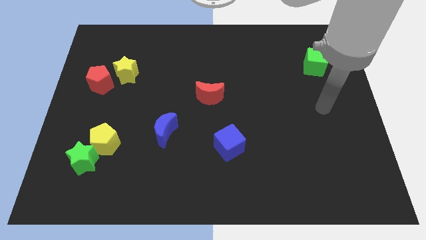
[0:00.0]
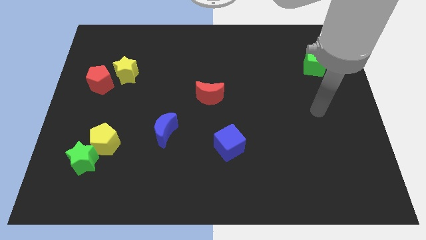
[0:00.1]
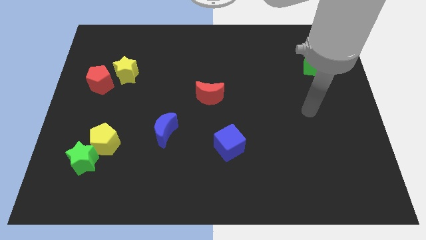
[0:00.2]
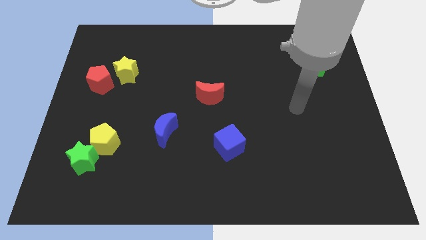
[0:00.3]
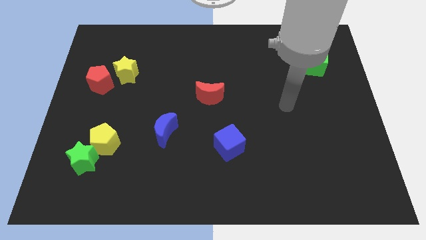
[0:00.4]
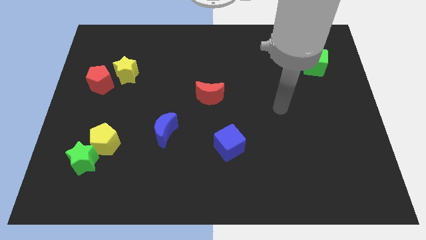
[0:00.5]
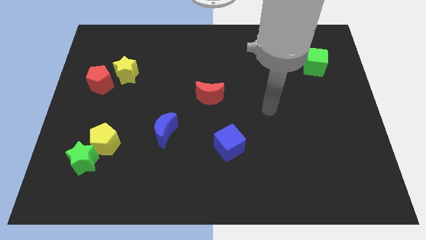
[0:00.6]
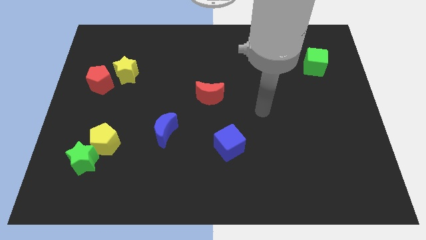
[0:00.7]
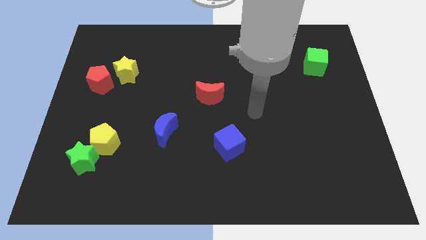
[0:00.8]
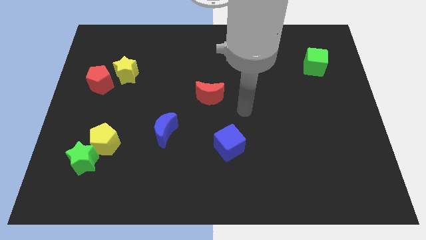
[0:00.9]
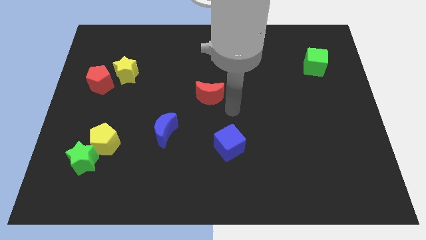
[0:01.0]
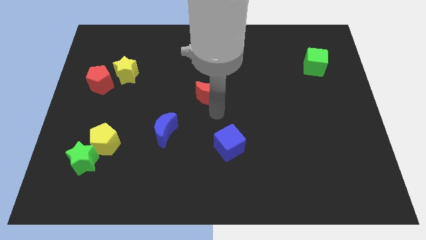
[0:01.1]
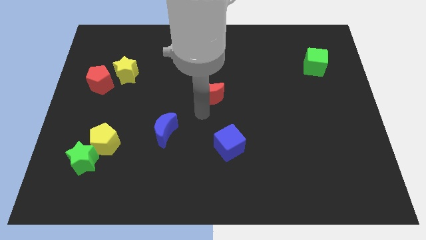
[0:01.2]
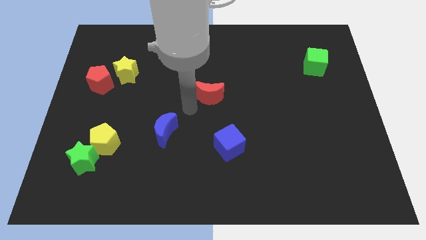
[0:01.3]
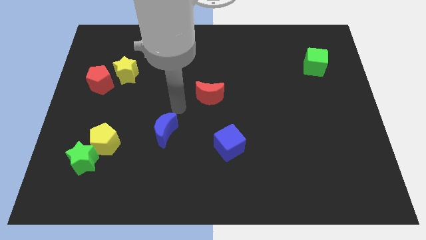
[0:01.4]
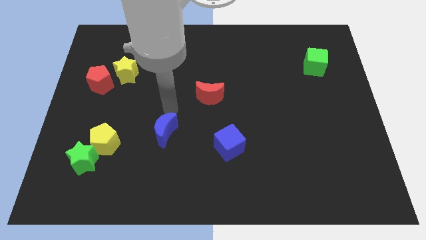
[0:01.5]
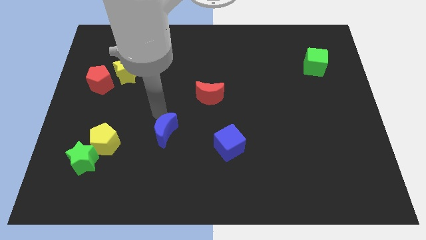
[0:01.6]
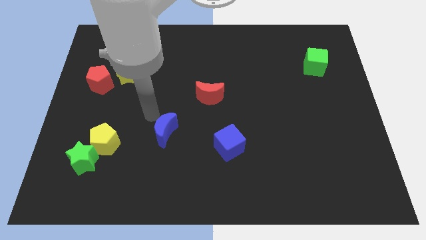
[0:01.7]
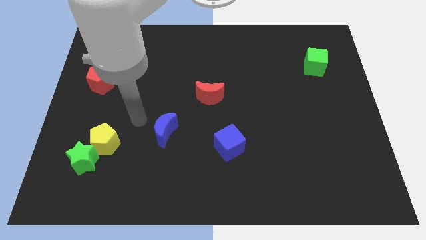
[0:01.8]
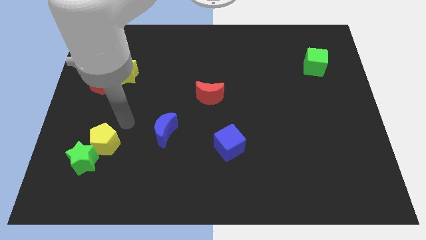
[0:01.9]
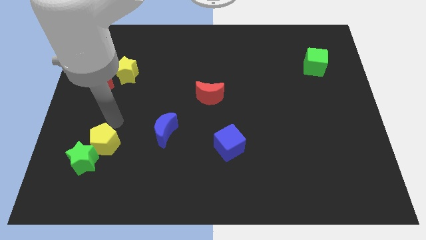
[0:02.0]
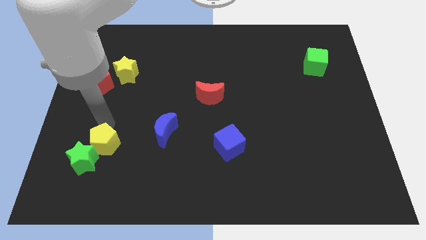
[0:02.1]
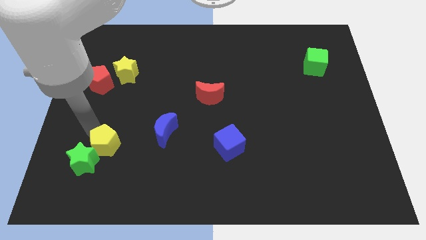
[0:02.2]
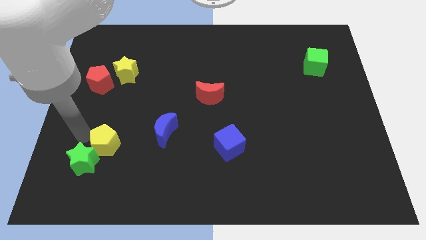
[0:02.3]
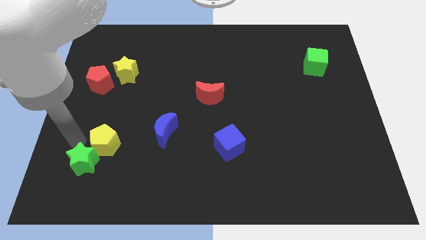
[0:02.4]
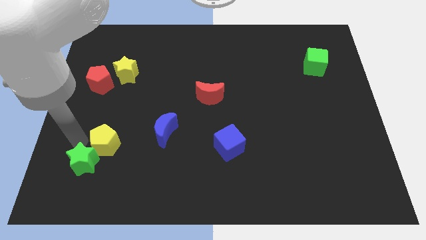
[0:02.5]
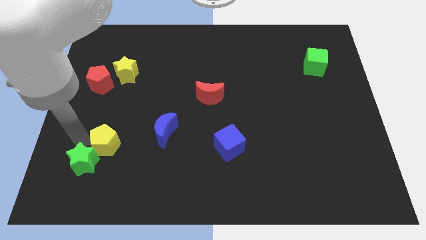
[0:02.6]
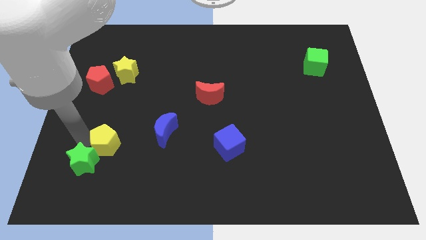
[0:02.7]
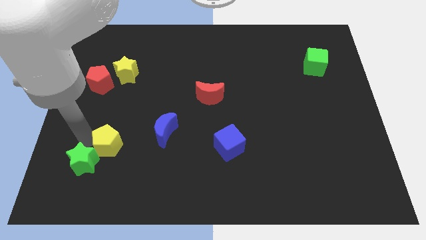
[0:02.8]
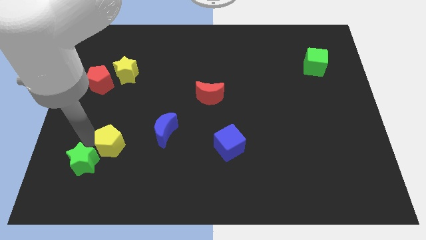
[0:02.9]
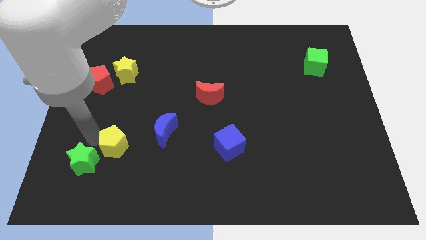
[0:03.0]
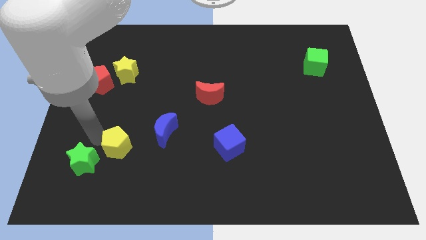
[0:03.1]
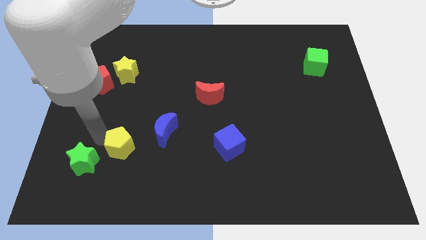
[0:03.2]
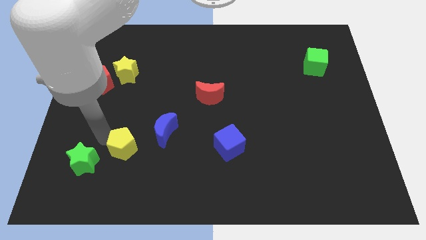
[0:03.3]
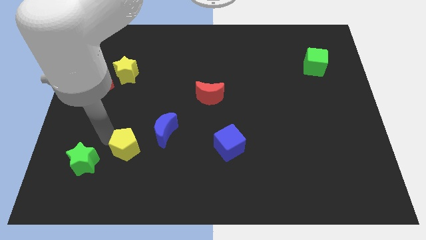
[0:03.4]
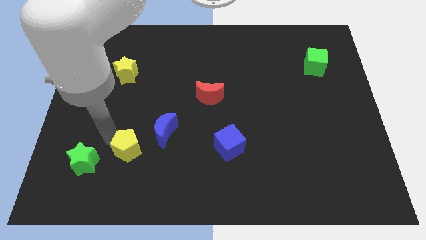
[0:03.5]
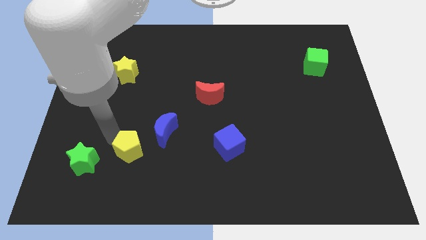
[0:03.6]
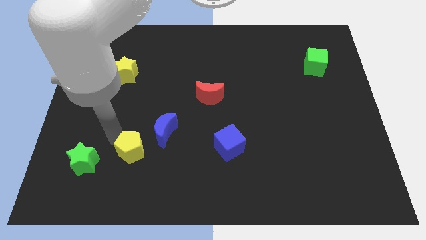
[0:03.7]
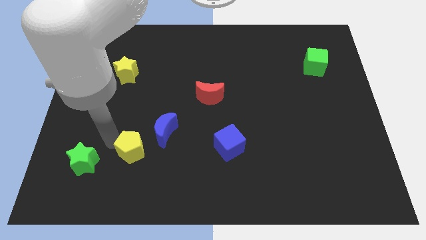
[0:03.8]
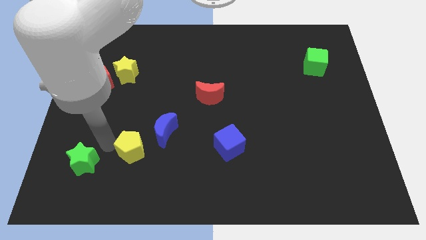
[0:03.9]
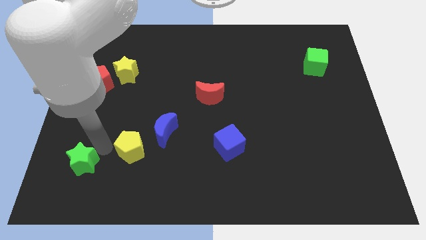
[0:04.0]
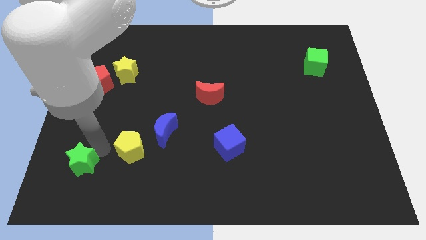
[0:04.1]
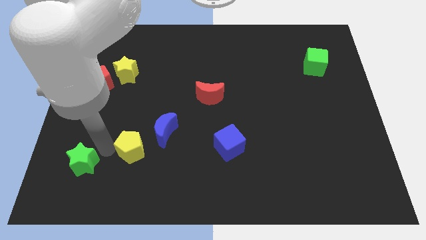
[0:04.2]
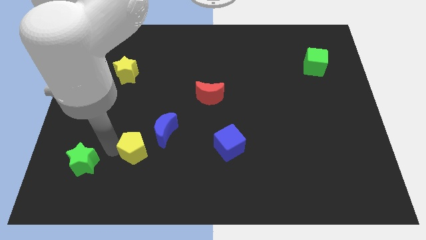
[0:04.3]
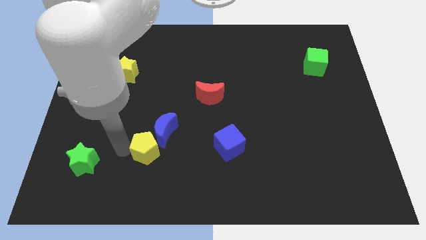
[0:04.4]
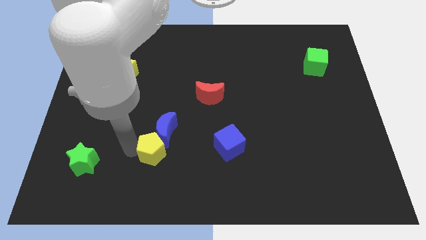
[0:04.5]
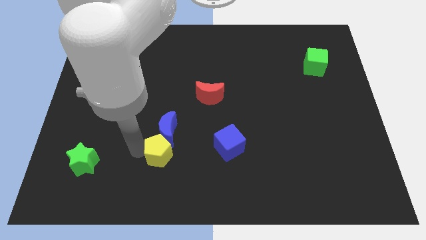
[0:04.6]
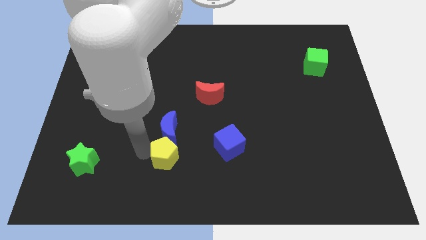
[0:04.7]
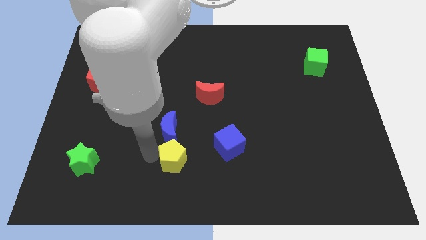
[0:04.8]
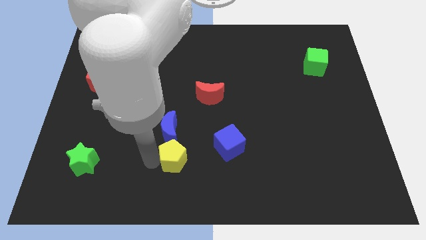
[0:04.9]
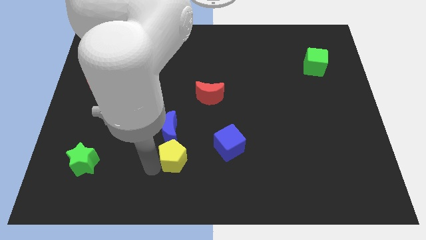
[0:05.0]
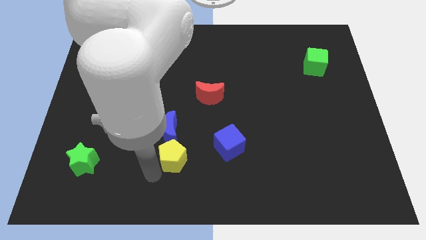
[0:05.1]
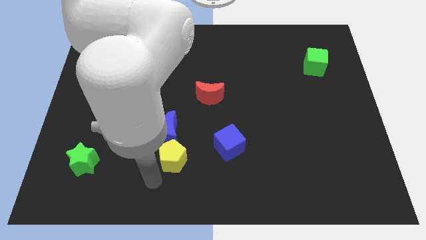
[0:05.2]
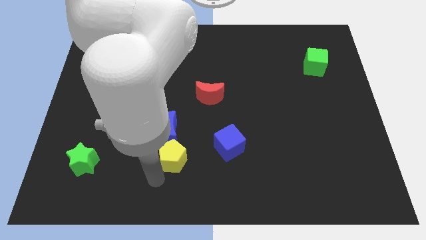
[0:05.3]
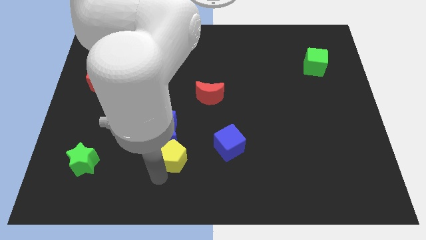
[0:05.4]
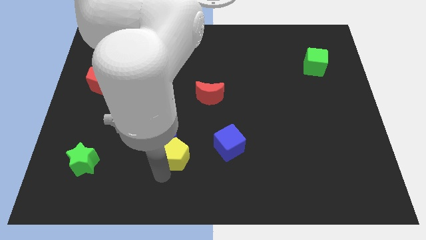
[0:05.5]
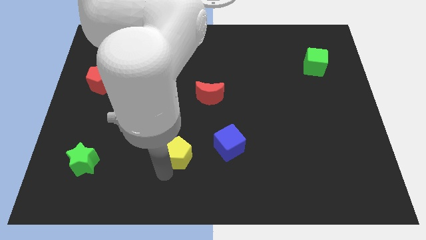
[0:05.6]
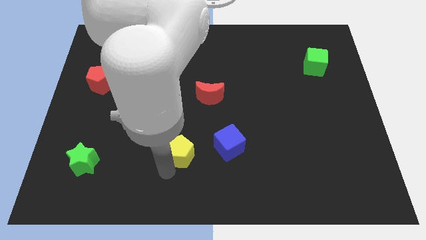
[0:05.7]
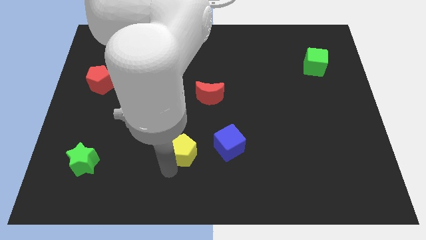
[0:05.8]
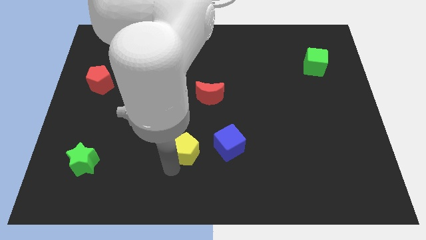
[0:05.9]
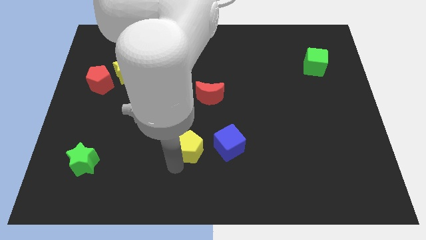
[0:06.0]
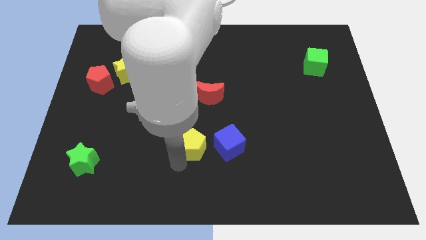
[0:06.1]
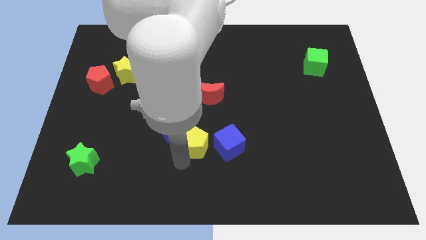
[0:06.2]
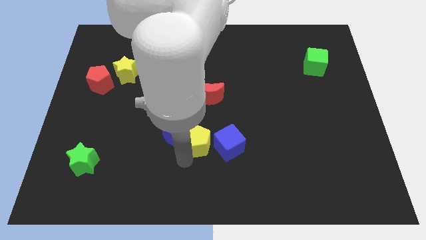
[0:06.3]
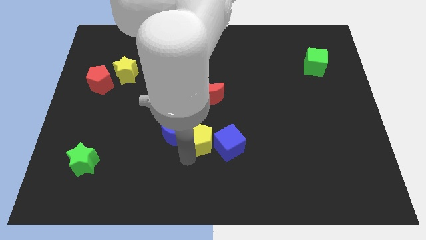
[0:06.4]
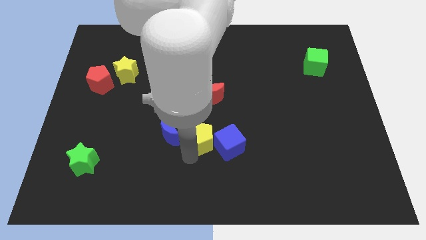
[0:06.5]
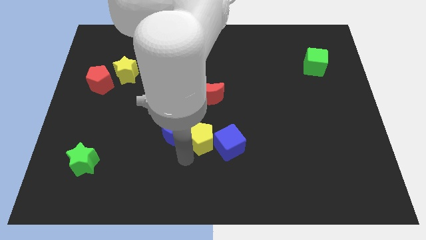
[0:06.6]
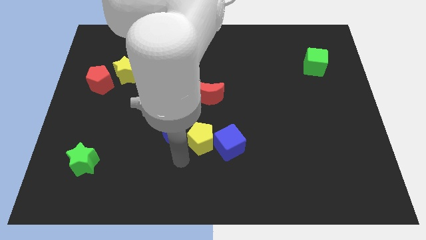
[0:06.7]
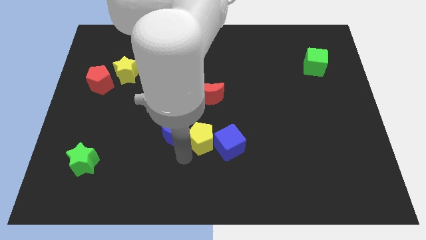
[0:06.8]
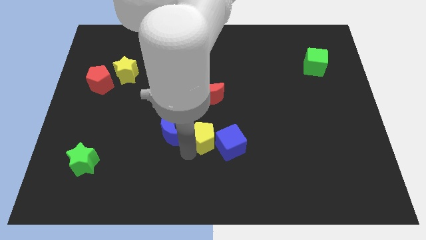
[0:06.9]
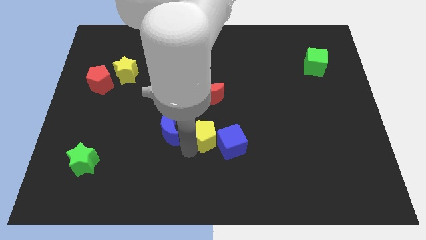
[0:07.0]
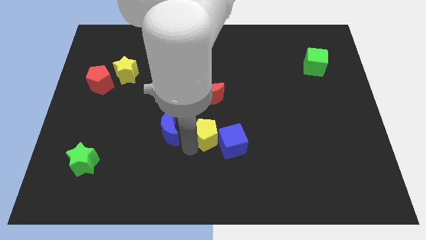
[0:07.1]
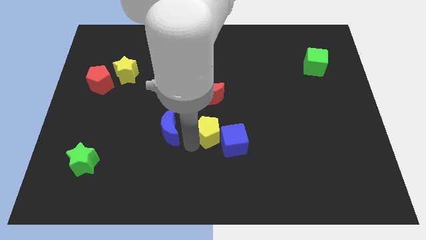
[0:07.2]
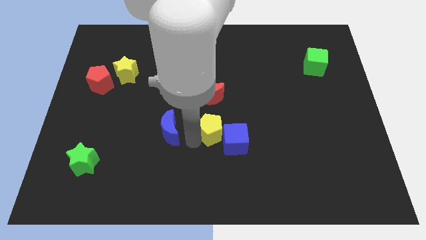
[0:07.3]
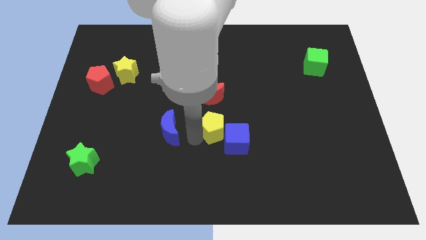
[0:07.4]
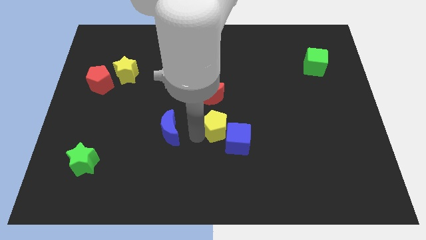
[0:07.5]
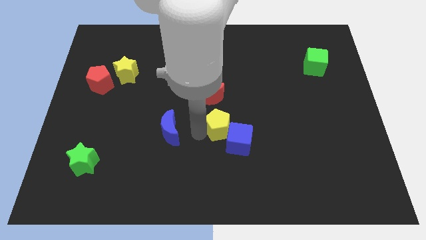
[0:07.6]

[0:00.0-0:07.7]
push the yellow pentagon to the bottom right of the red moon
